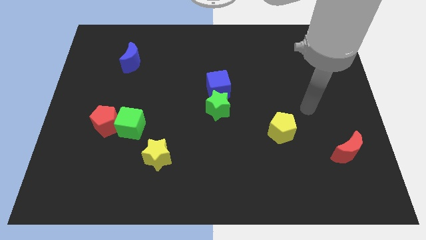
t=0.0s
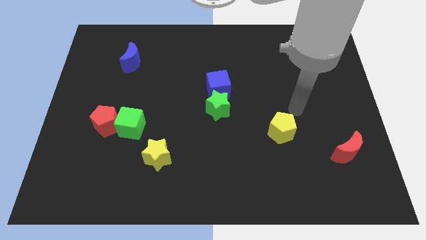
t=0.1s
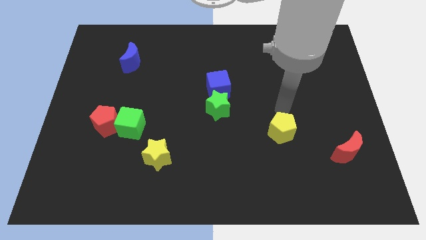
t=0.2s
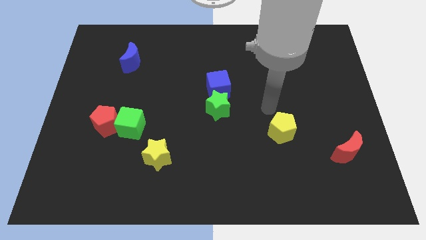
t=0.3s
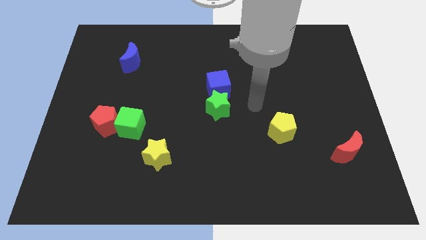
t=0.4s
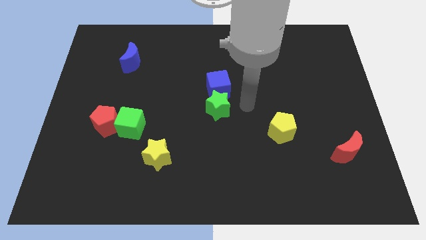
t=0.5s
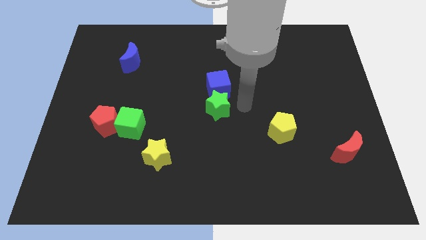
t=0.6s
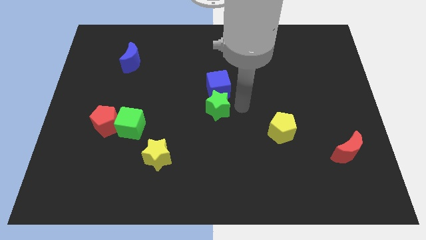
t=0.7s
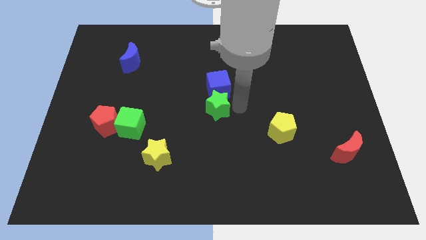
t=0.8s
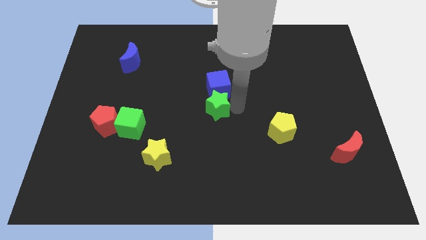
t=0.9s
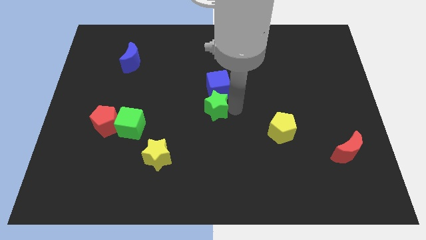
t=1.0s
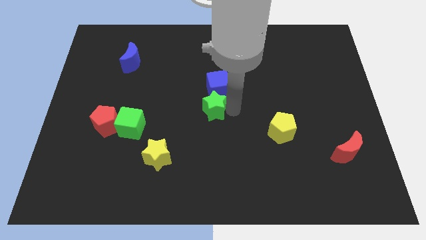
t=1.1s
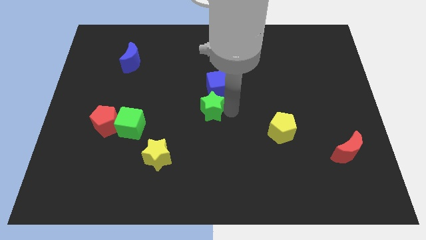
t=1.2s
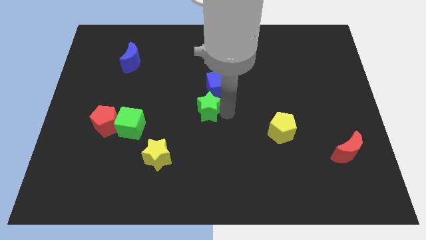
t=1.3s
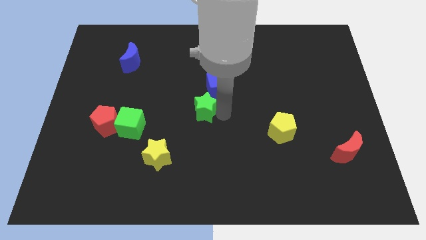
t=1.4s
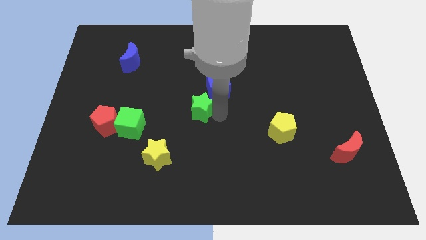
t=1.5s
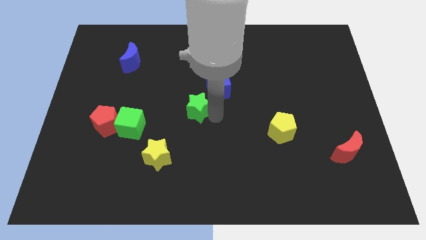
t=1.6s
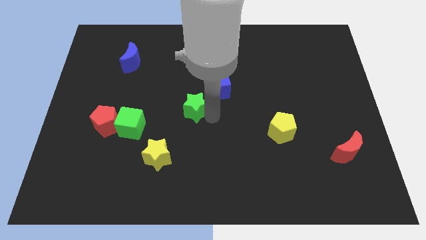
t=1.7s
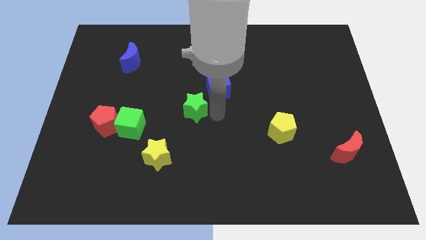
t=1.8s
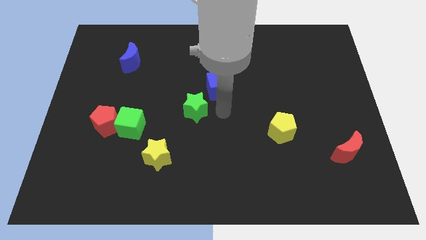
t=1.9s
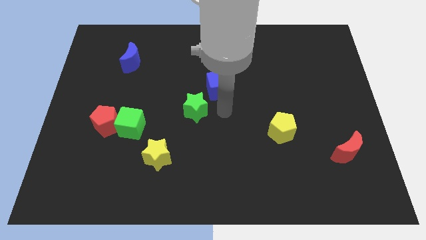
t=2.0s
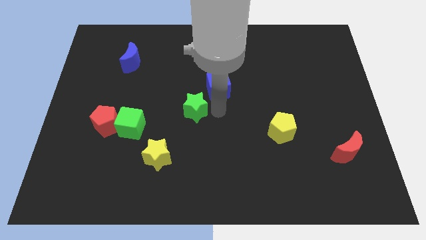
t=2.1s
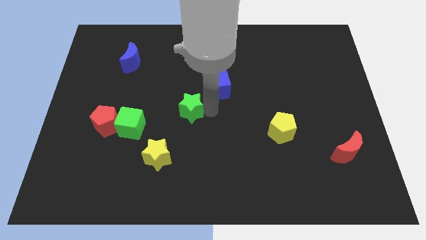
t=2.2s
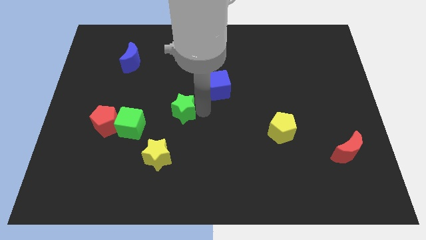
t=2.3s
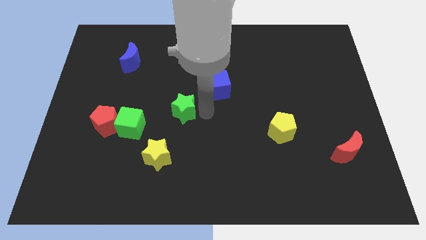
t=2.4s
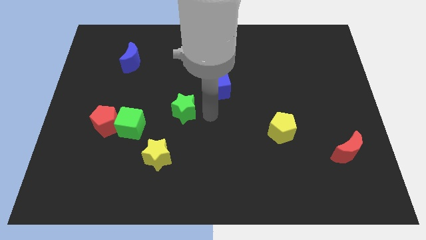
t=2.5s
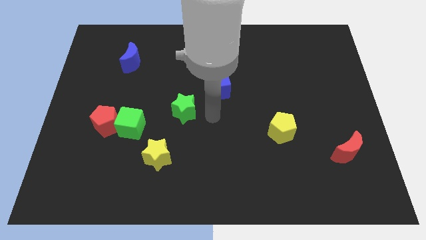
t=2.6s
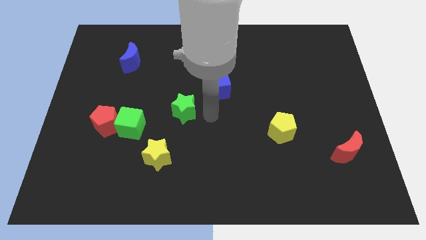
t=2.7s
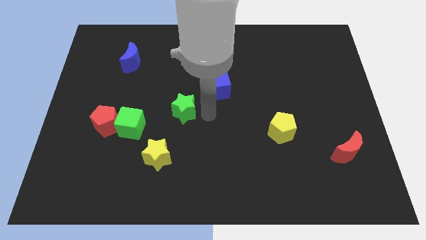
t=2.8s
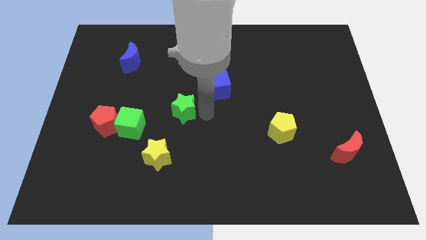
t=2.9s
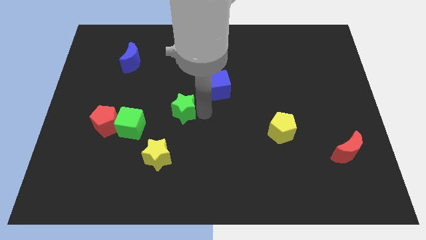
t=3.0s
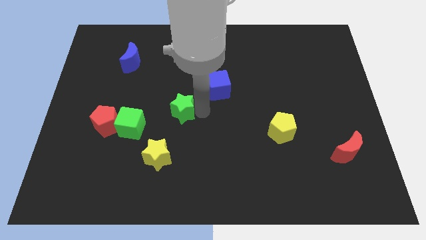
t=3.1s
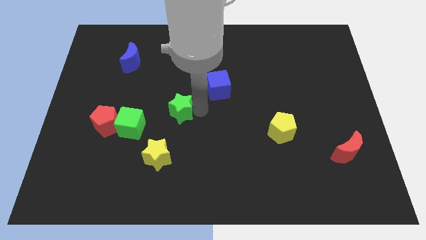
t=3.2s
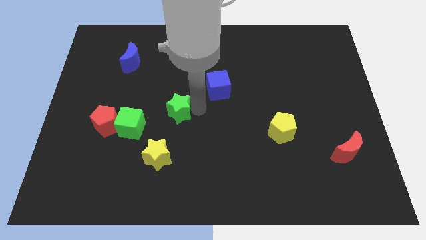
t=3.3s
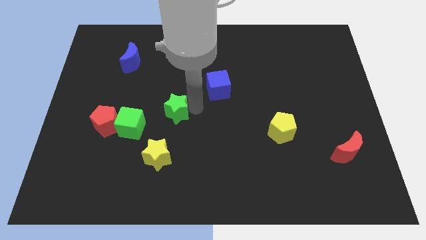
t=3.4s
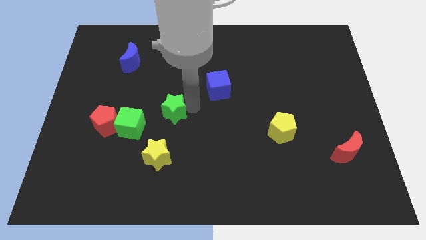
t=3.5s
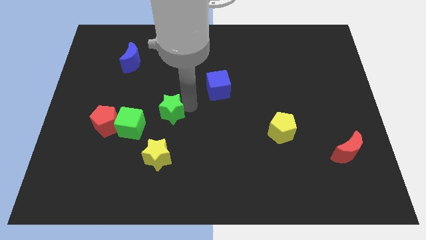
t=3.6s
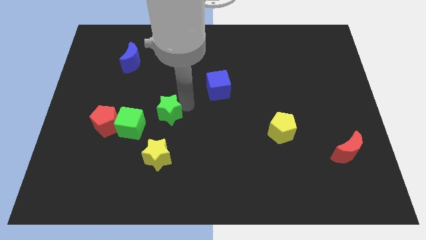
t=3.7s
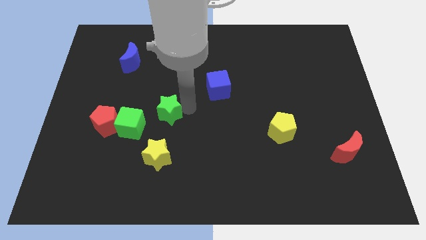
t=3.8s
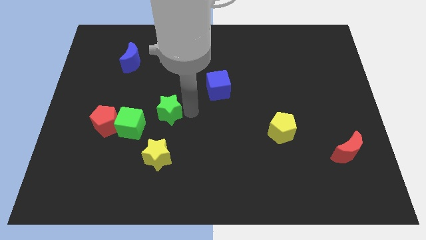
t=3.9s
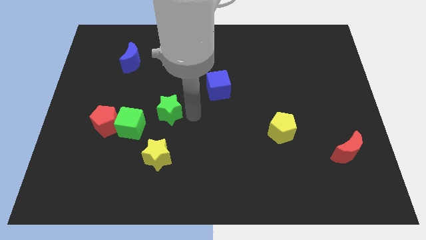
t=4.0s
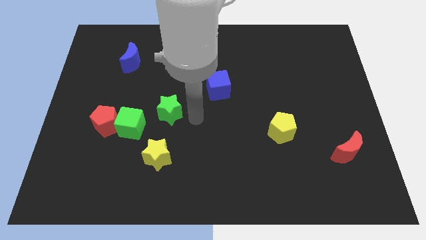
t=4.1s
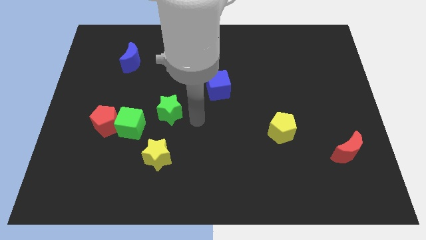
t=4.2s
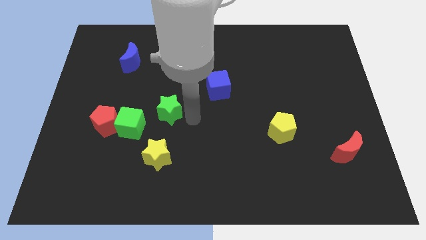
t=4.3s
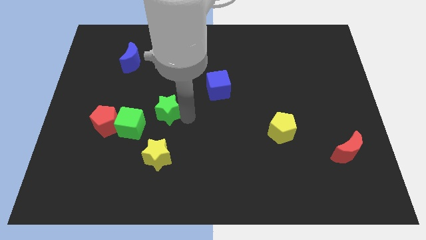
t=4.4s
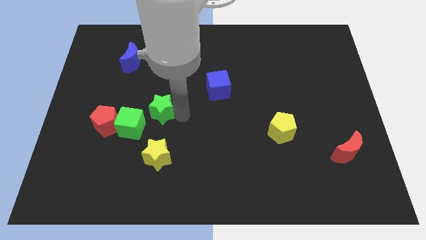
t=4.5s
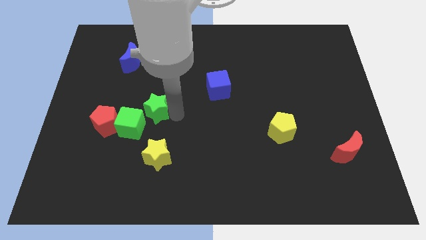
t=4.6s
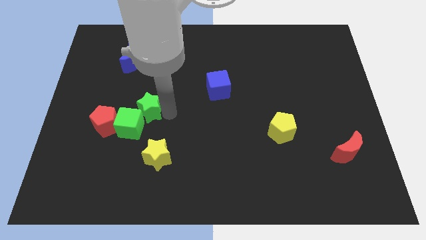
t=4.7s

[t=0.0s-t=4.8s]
put the green star to the top right of the red pentagon

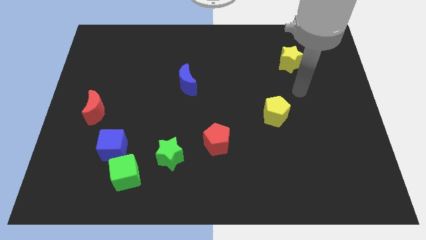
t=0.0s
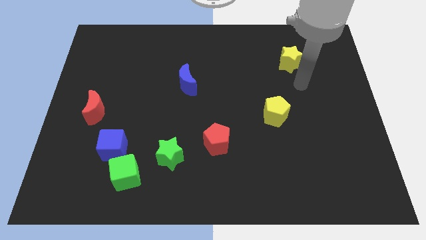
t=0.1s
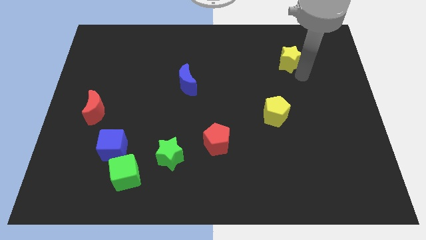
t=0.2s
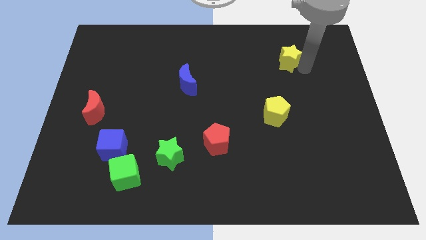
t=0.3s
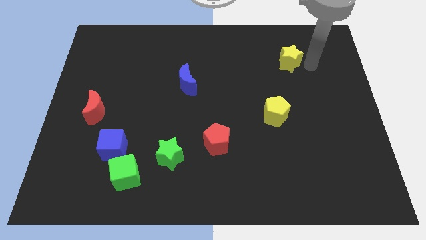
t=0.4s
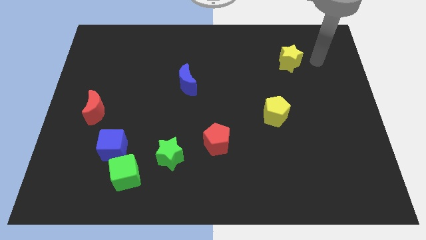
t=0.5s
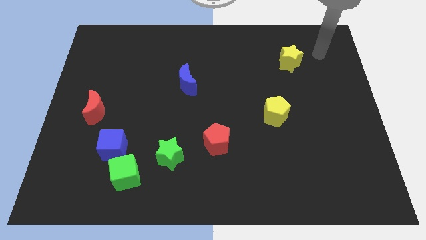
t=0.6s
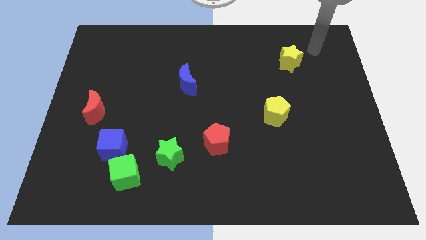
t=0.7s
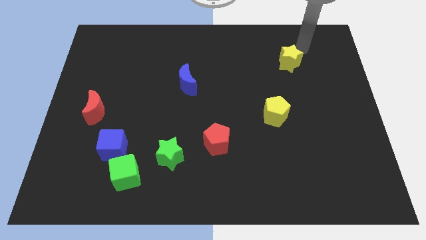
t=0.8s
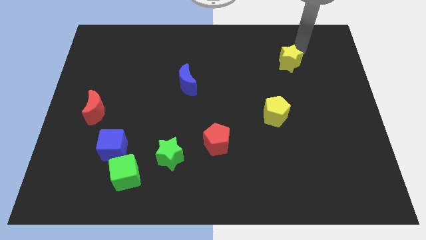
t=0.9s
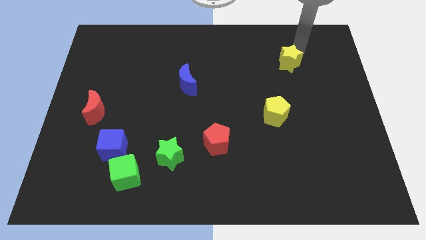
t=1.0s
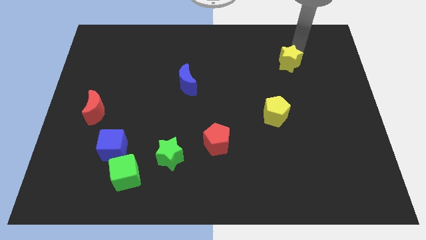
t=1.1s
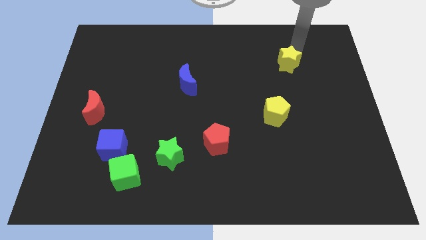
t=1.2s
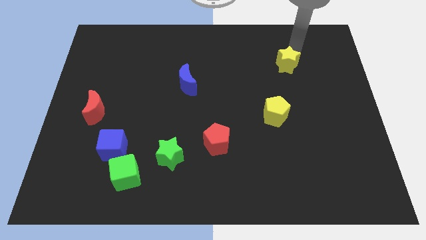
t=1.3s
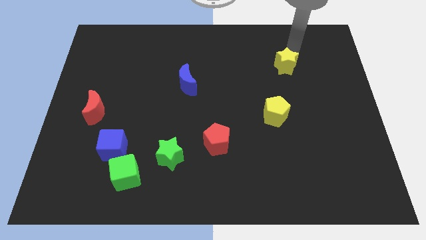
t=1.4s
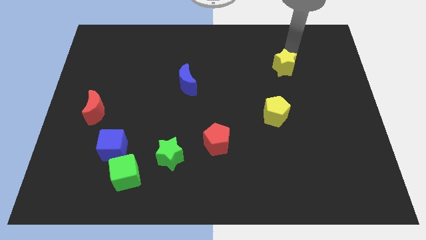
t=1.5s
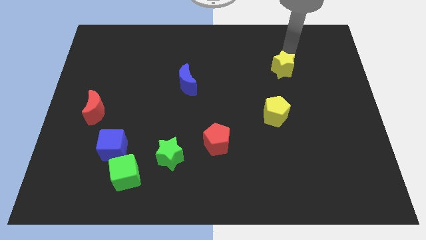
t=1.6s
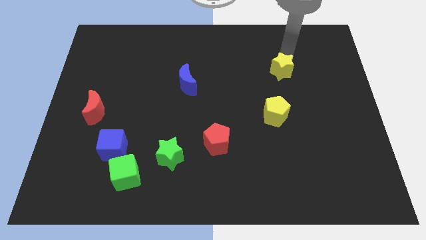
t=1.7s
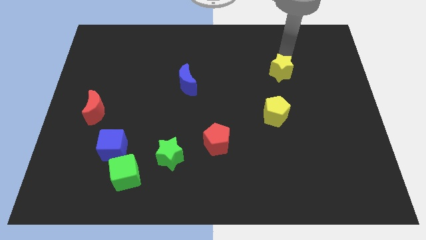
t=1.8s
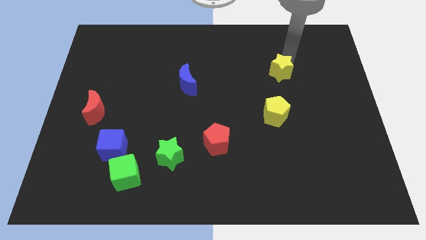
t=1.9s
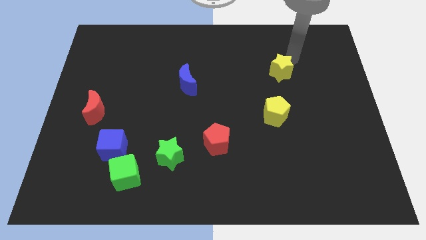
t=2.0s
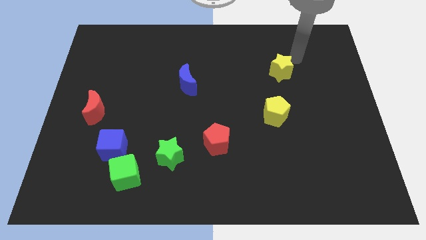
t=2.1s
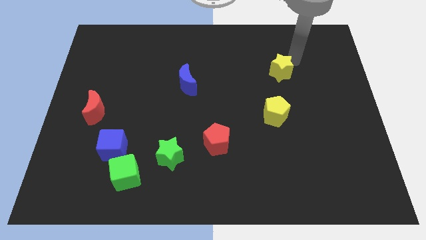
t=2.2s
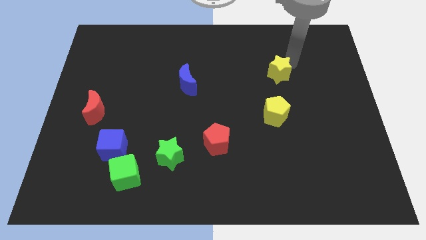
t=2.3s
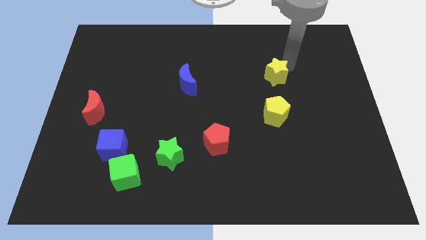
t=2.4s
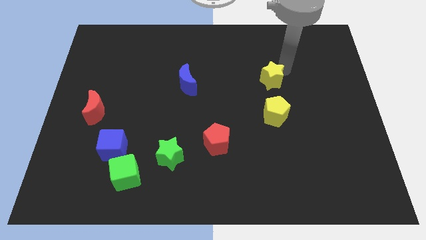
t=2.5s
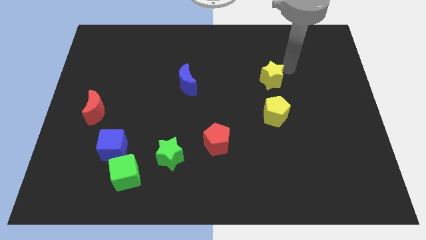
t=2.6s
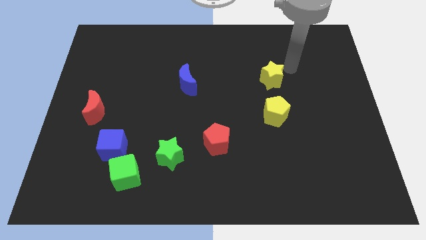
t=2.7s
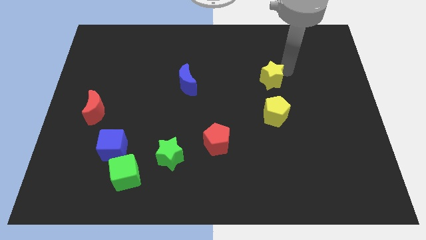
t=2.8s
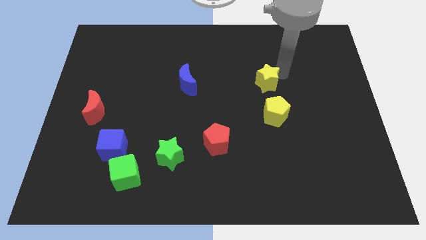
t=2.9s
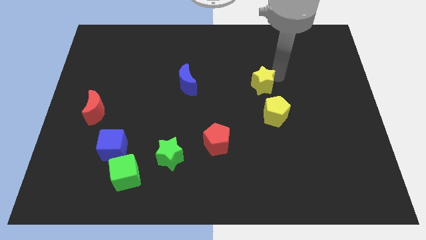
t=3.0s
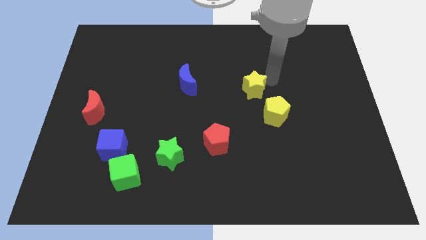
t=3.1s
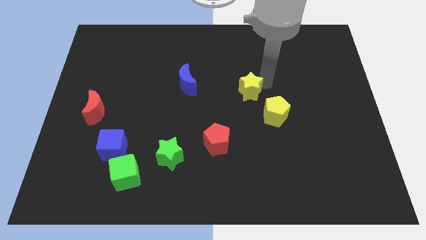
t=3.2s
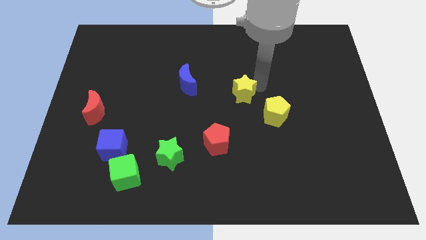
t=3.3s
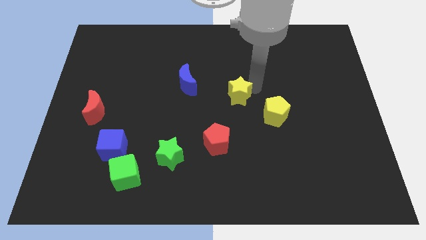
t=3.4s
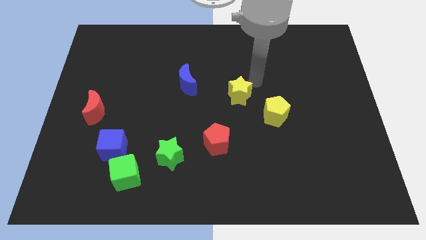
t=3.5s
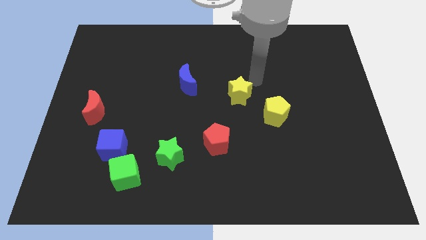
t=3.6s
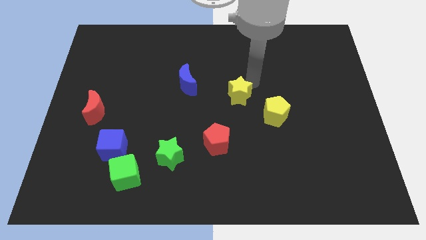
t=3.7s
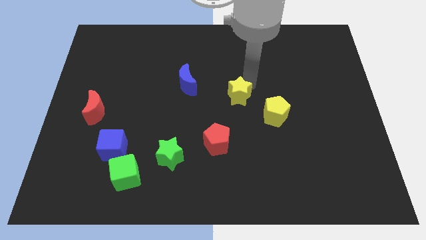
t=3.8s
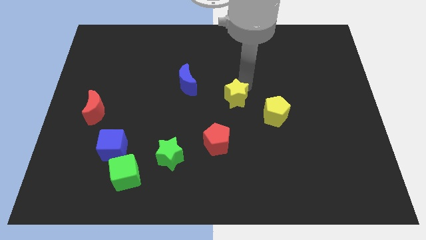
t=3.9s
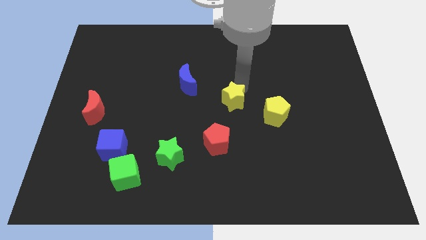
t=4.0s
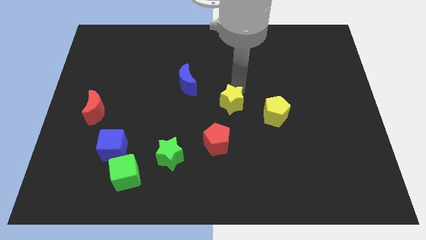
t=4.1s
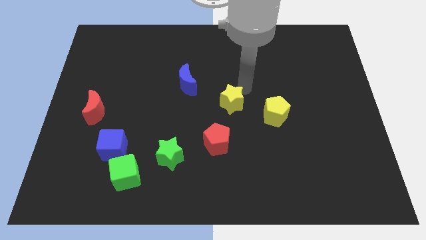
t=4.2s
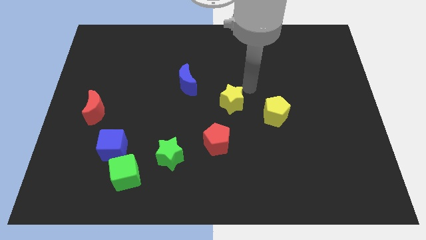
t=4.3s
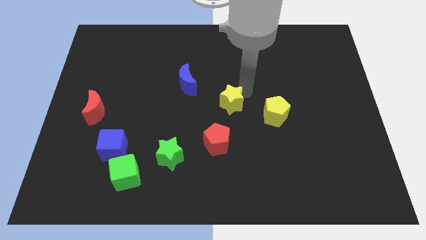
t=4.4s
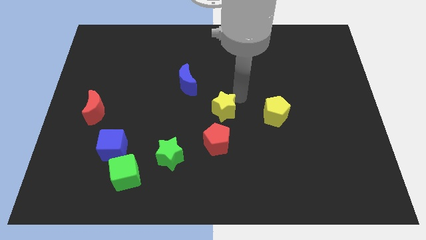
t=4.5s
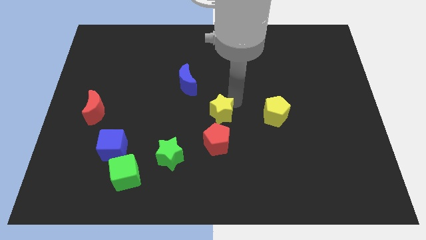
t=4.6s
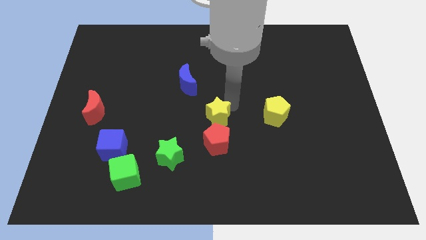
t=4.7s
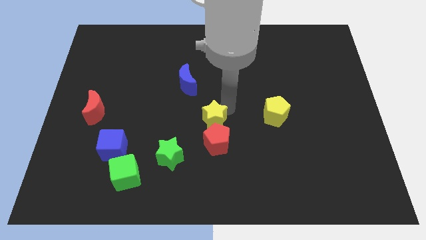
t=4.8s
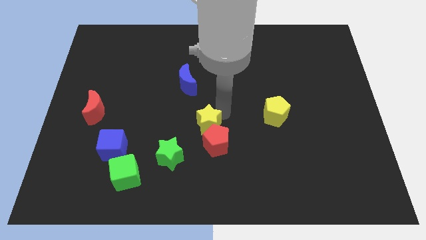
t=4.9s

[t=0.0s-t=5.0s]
slide the yellow star diagonally up and to the right of the green star
